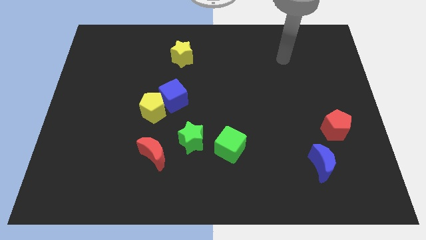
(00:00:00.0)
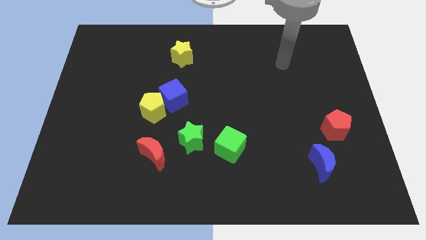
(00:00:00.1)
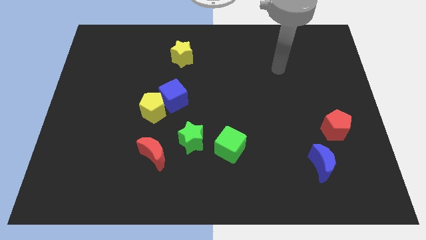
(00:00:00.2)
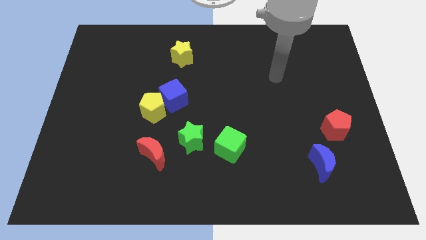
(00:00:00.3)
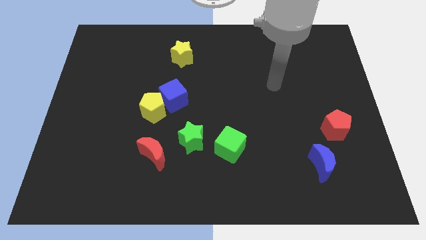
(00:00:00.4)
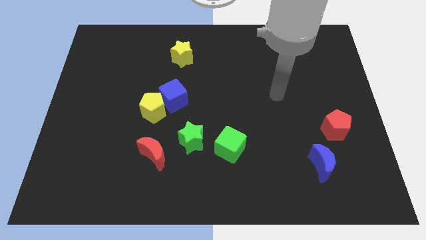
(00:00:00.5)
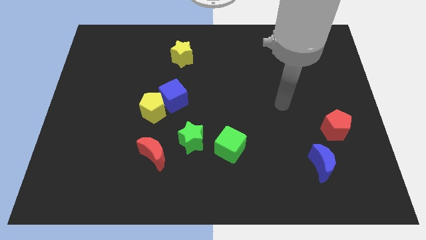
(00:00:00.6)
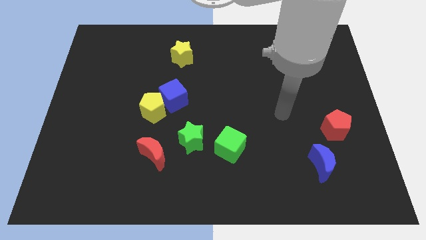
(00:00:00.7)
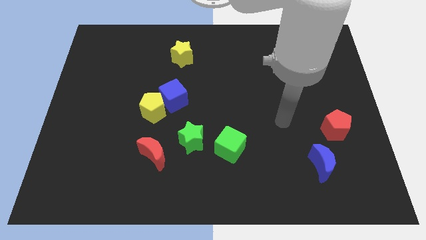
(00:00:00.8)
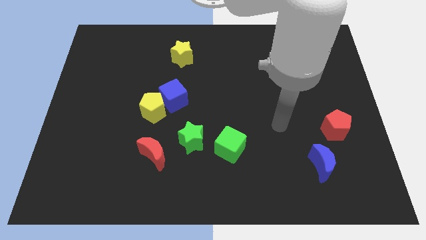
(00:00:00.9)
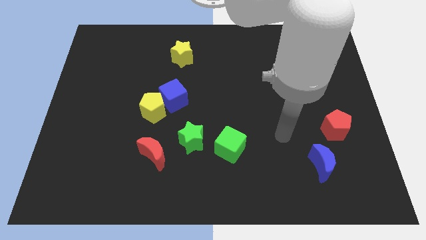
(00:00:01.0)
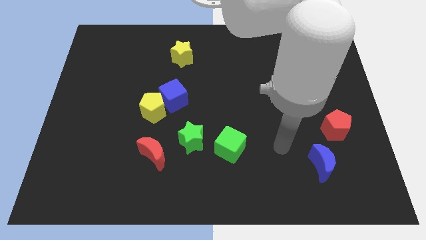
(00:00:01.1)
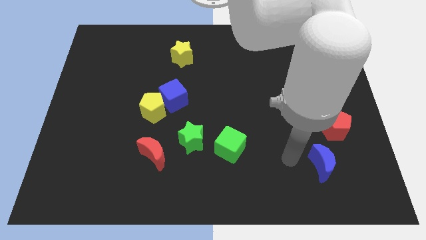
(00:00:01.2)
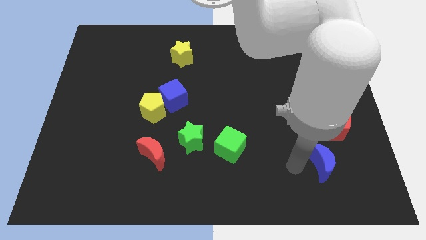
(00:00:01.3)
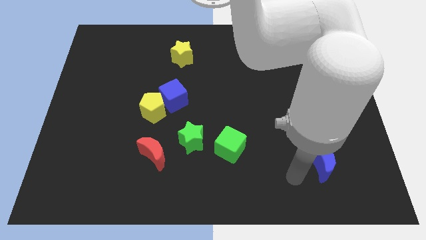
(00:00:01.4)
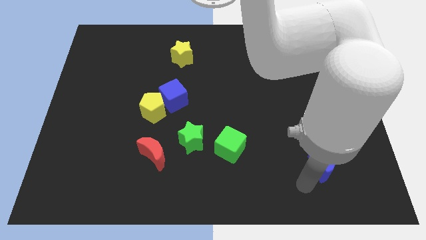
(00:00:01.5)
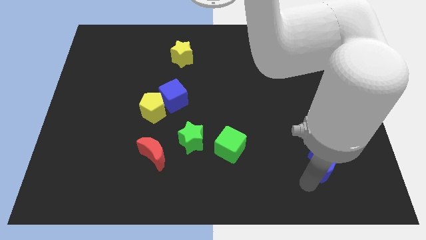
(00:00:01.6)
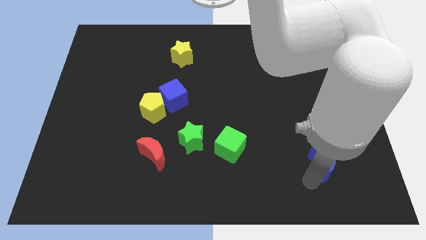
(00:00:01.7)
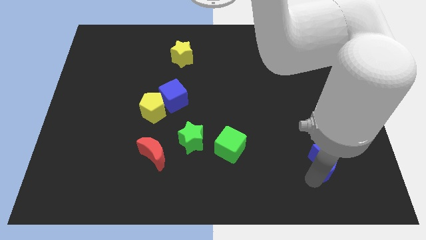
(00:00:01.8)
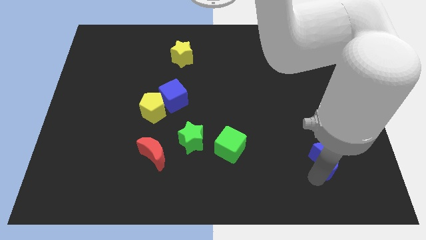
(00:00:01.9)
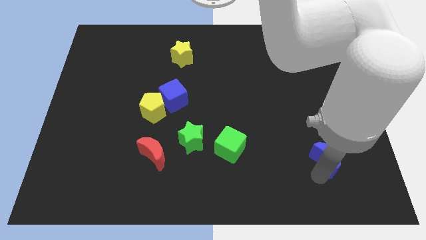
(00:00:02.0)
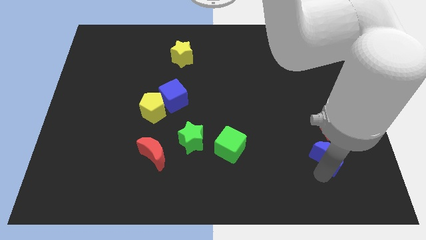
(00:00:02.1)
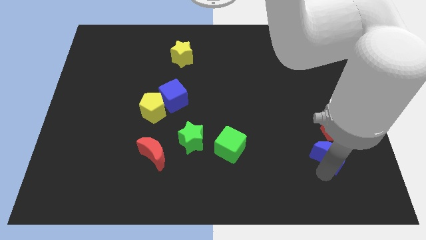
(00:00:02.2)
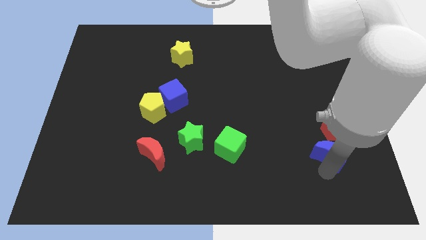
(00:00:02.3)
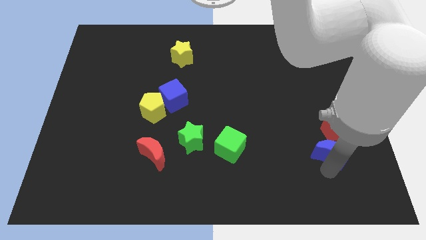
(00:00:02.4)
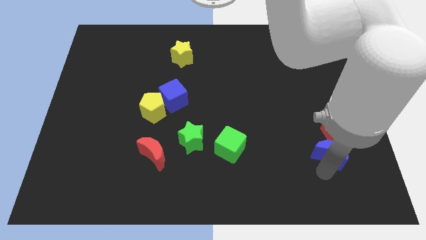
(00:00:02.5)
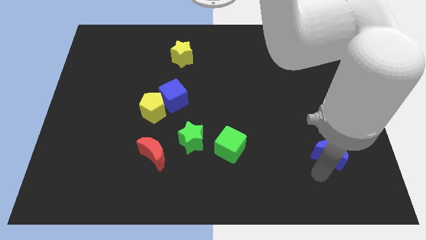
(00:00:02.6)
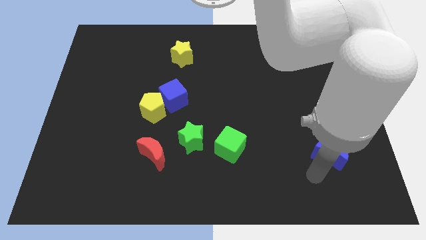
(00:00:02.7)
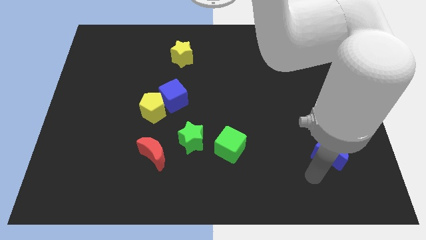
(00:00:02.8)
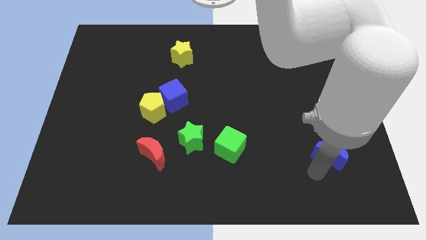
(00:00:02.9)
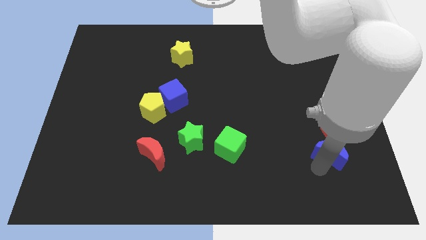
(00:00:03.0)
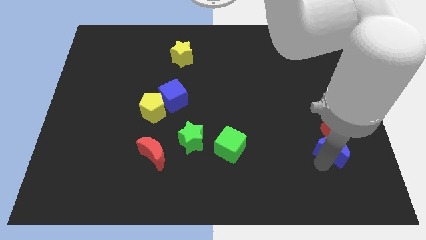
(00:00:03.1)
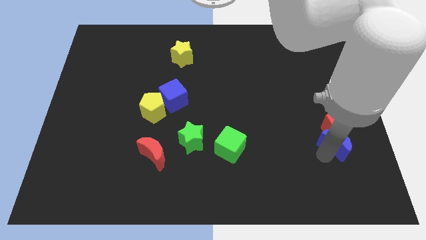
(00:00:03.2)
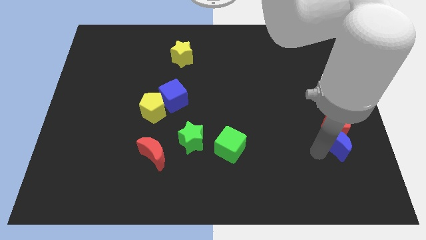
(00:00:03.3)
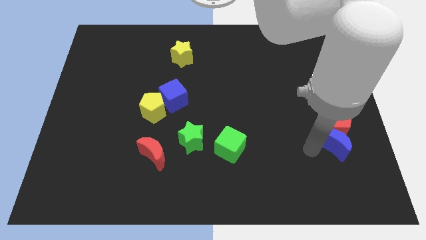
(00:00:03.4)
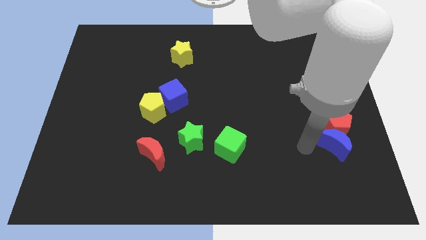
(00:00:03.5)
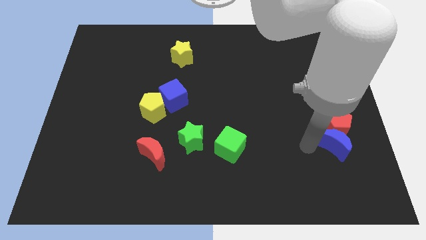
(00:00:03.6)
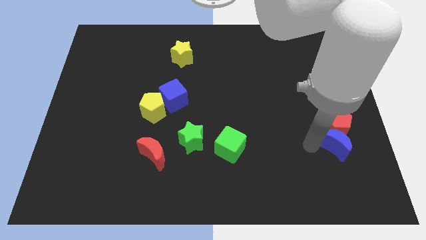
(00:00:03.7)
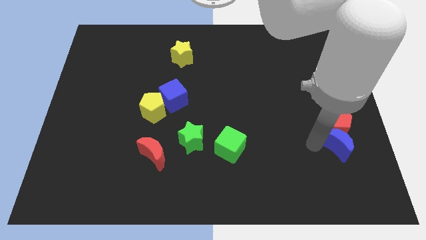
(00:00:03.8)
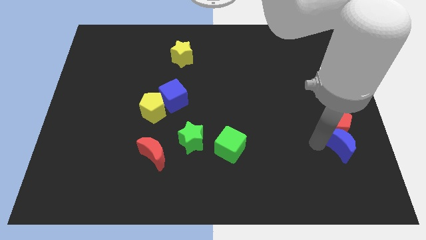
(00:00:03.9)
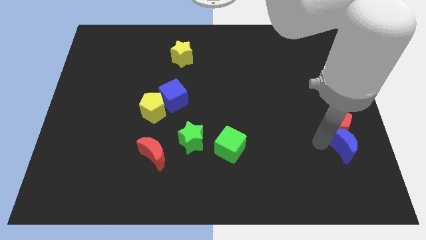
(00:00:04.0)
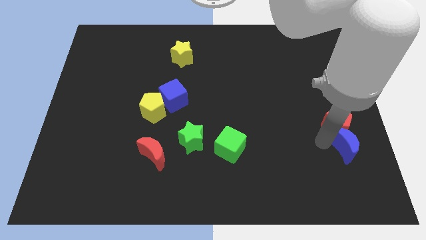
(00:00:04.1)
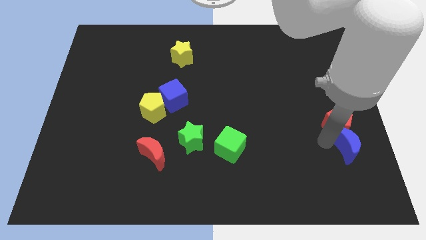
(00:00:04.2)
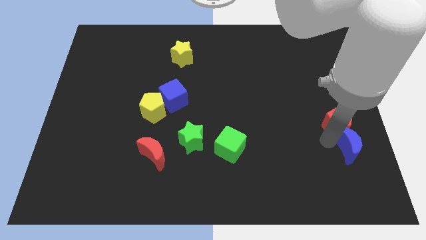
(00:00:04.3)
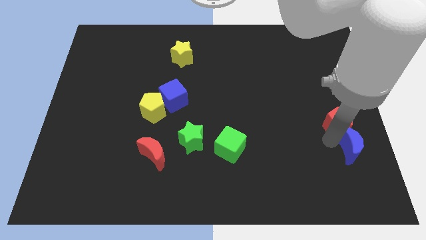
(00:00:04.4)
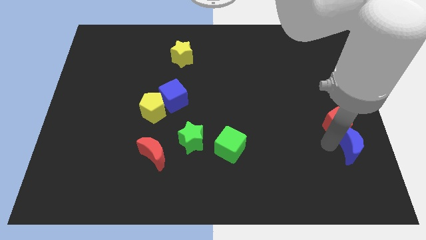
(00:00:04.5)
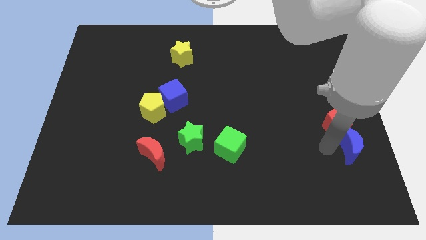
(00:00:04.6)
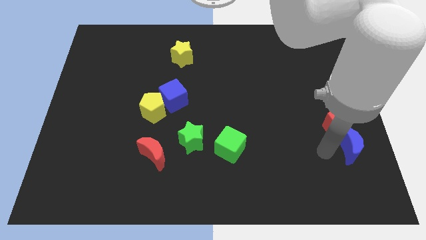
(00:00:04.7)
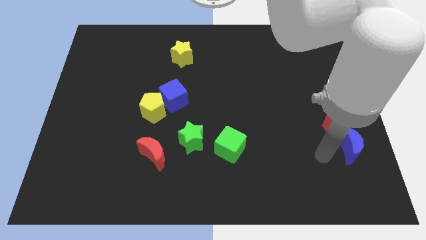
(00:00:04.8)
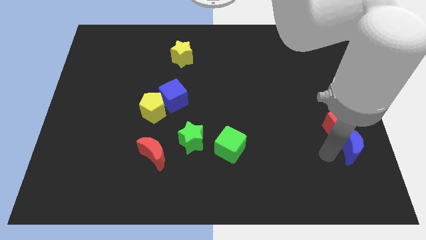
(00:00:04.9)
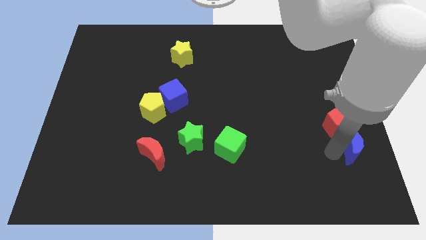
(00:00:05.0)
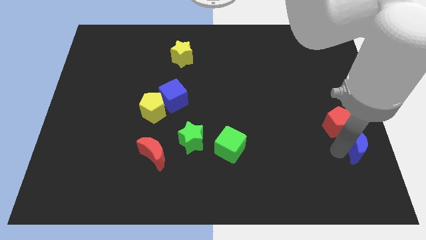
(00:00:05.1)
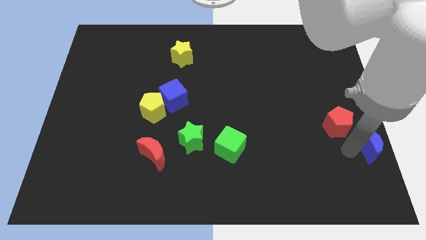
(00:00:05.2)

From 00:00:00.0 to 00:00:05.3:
put the blue moon to the right side

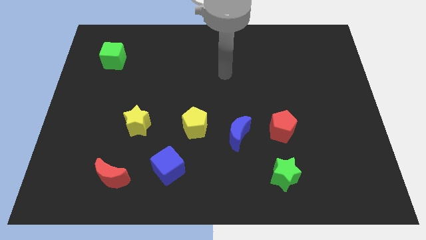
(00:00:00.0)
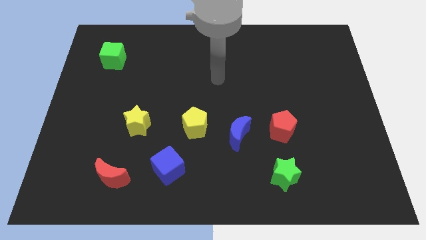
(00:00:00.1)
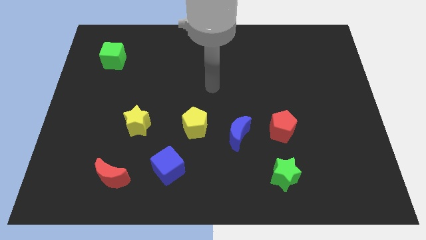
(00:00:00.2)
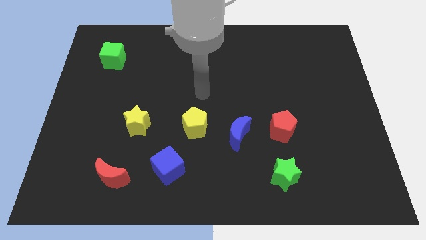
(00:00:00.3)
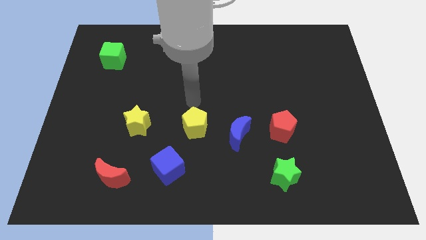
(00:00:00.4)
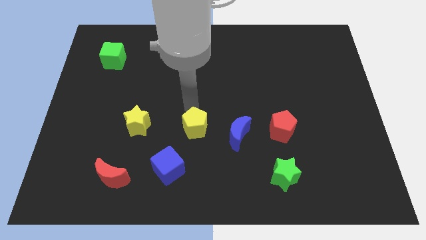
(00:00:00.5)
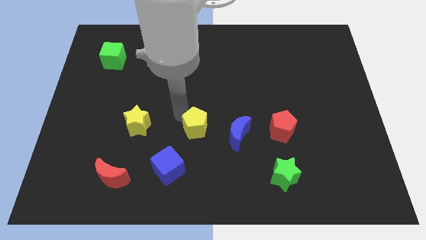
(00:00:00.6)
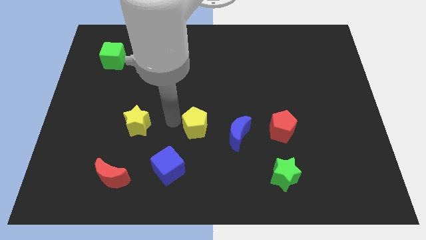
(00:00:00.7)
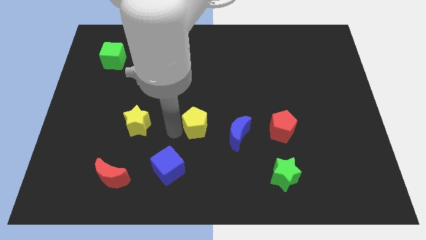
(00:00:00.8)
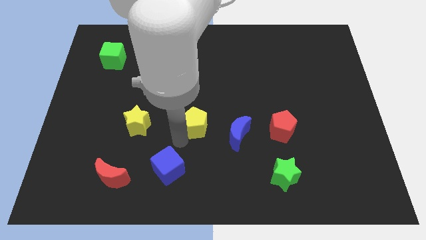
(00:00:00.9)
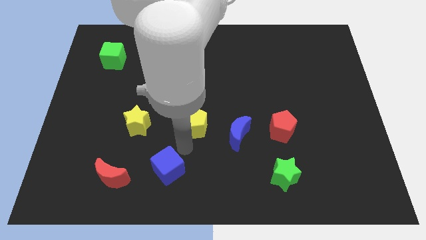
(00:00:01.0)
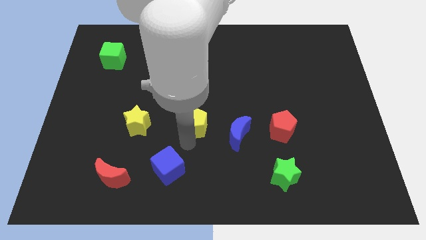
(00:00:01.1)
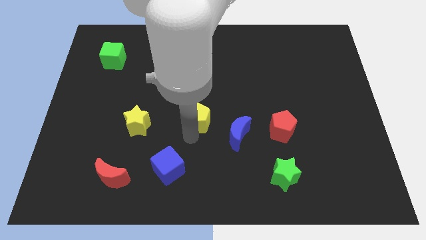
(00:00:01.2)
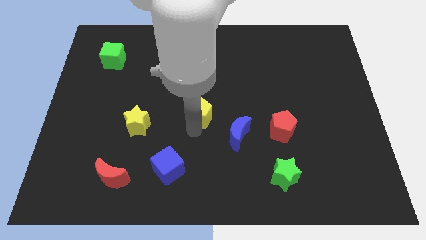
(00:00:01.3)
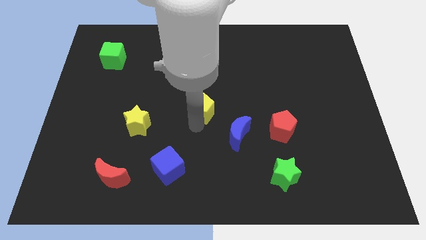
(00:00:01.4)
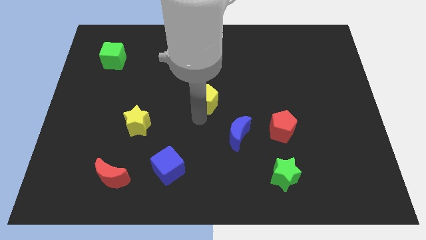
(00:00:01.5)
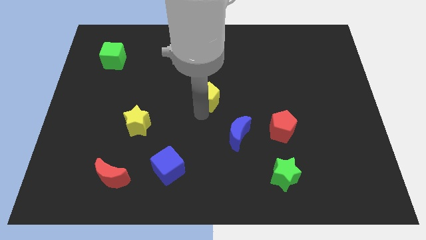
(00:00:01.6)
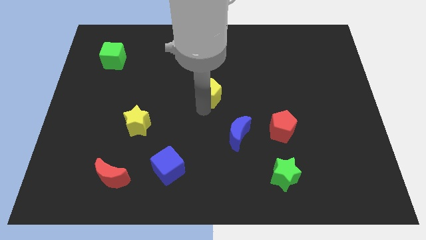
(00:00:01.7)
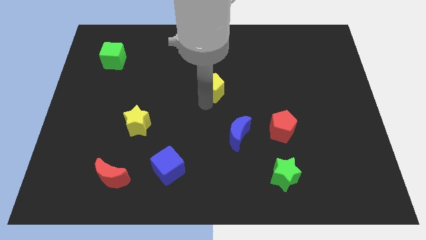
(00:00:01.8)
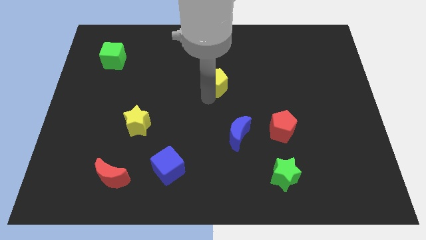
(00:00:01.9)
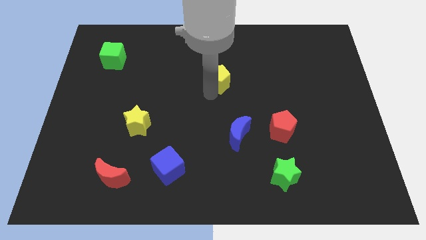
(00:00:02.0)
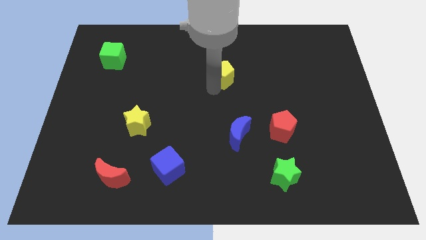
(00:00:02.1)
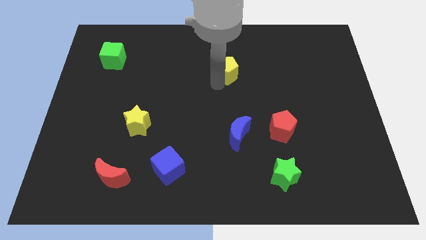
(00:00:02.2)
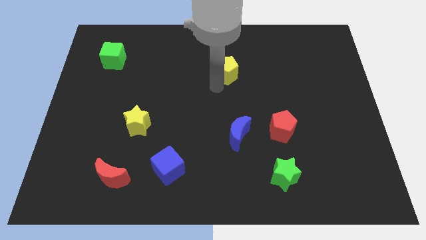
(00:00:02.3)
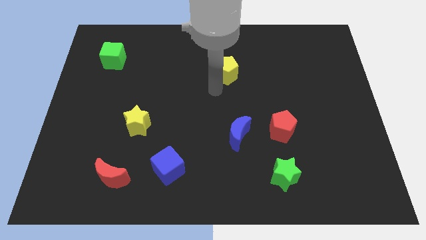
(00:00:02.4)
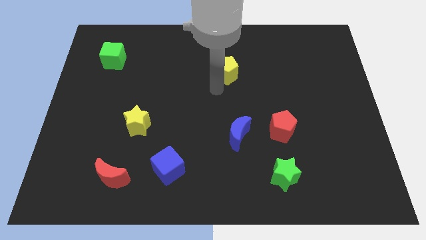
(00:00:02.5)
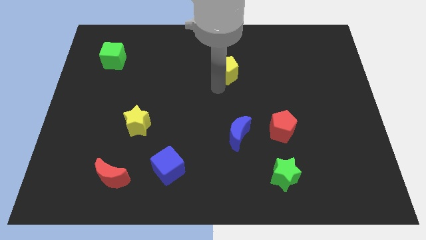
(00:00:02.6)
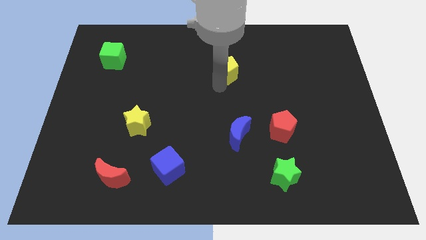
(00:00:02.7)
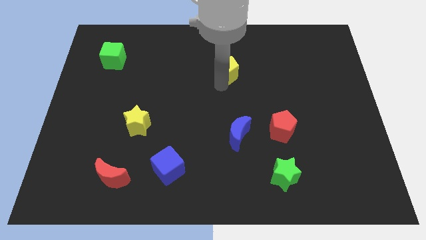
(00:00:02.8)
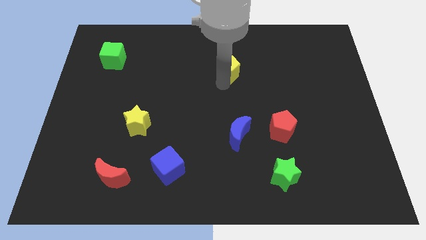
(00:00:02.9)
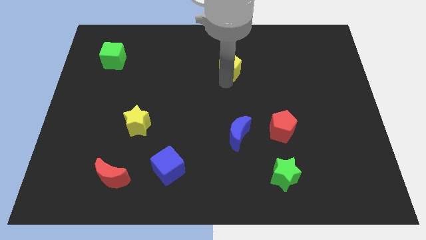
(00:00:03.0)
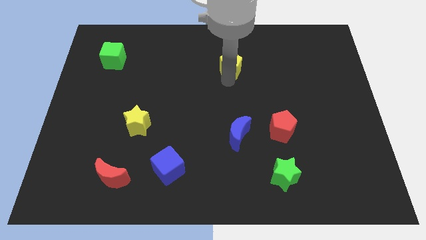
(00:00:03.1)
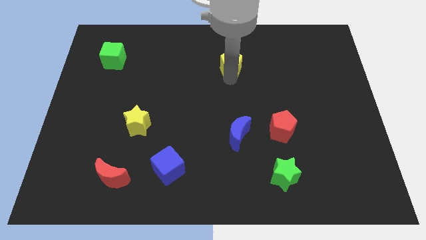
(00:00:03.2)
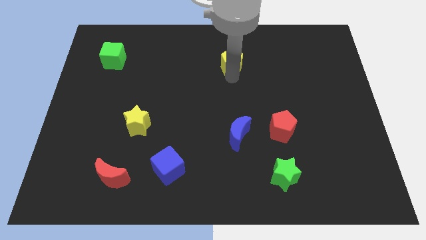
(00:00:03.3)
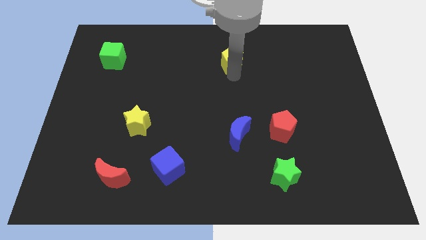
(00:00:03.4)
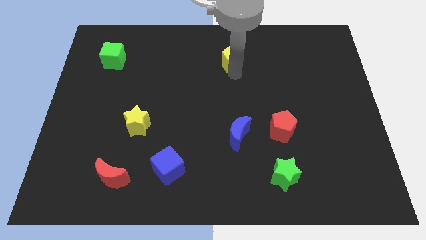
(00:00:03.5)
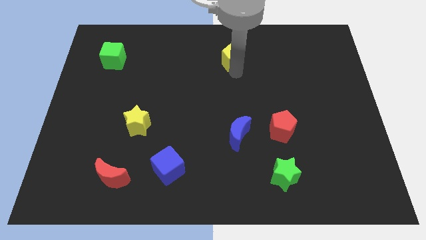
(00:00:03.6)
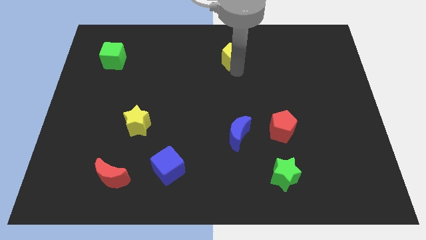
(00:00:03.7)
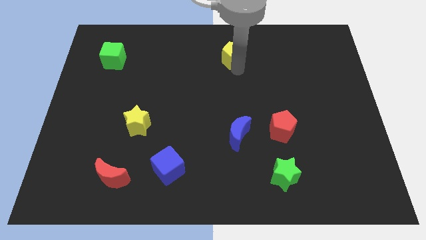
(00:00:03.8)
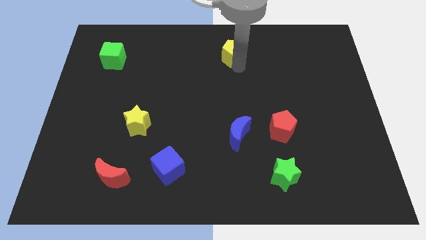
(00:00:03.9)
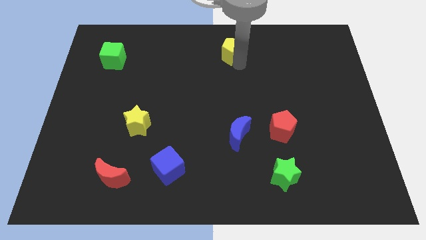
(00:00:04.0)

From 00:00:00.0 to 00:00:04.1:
slide the yellow pentagon to the top
